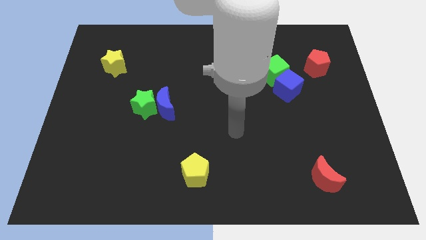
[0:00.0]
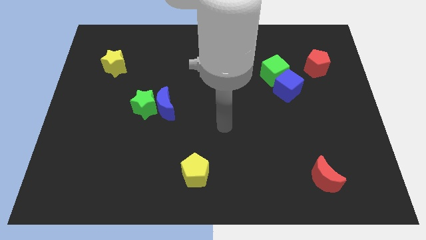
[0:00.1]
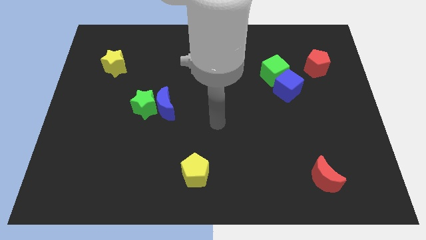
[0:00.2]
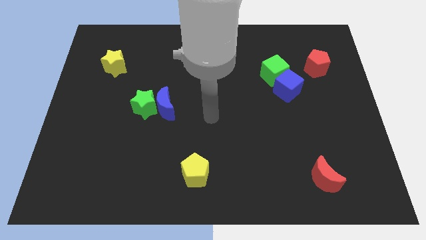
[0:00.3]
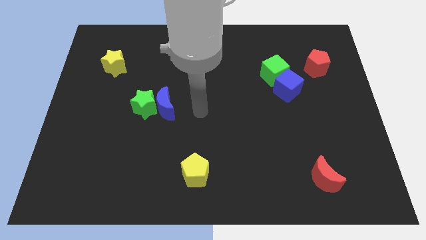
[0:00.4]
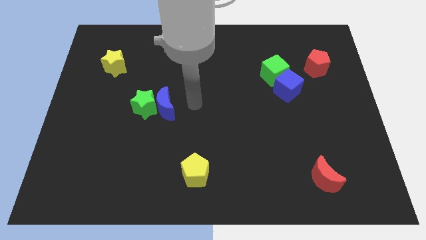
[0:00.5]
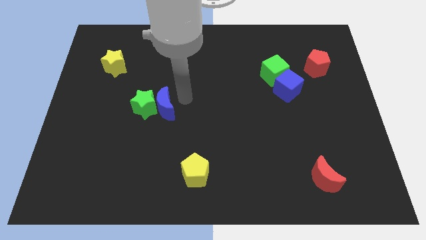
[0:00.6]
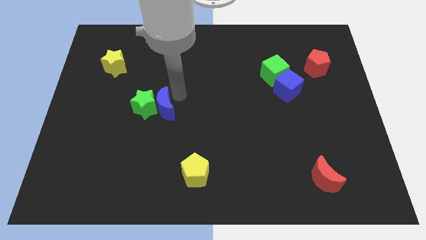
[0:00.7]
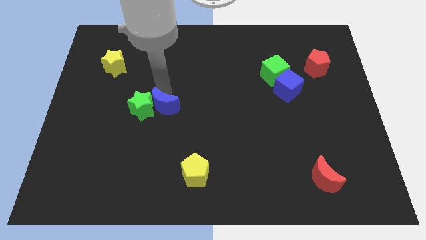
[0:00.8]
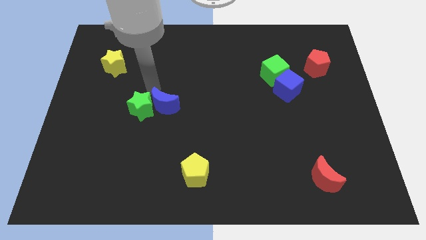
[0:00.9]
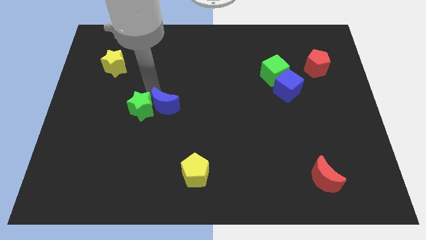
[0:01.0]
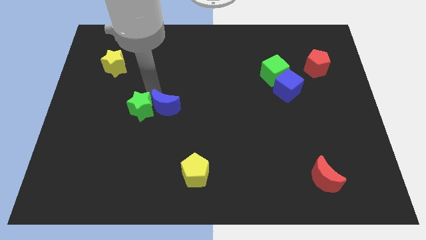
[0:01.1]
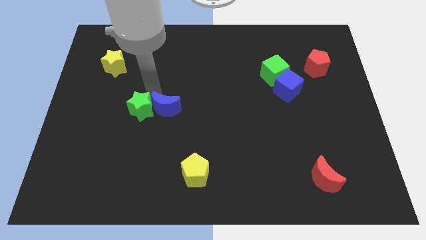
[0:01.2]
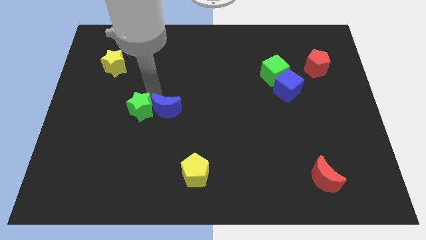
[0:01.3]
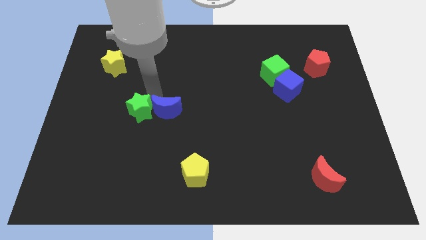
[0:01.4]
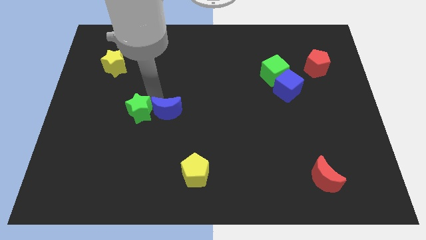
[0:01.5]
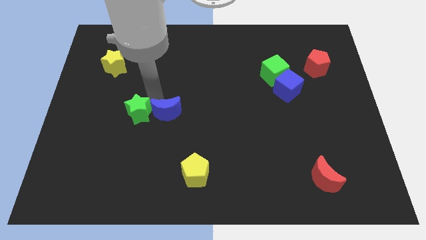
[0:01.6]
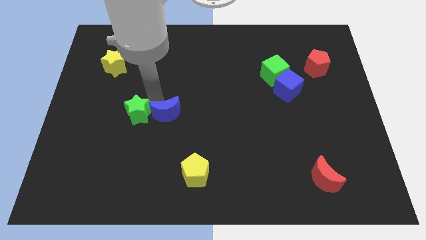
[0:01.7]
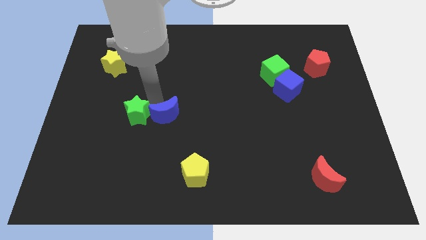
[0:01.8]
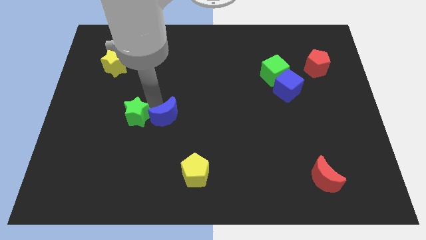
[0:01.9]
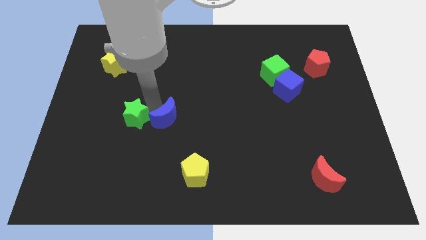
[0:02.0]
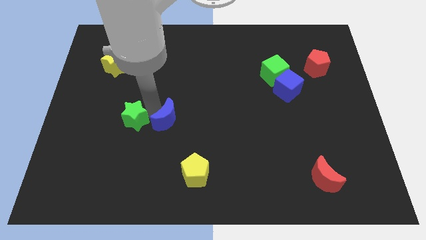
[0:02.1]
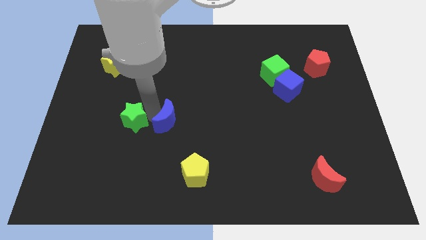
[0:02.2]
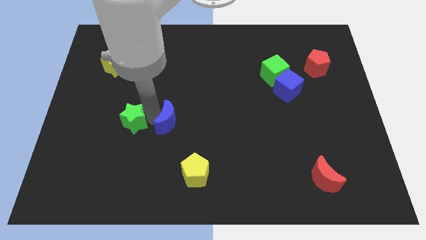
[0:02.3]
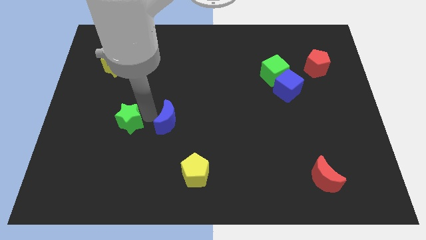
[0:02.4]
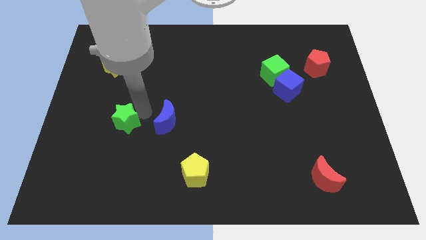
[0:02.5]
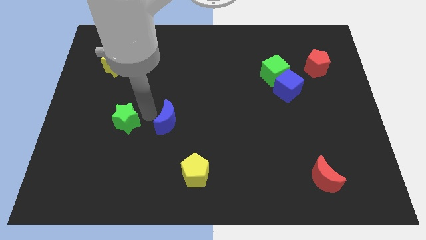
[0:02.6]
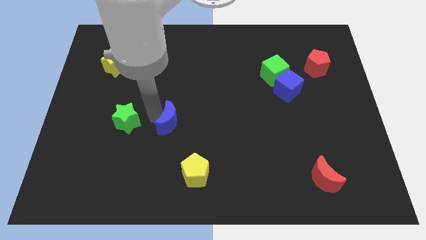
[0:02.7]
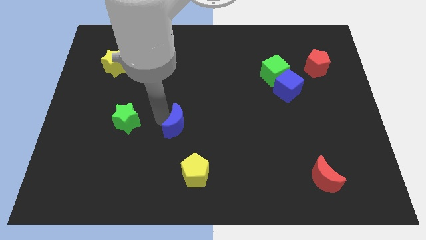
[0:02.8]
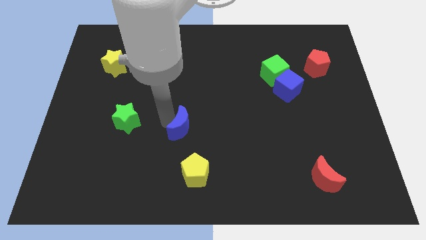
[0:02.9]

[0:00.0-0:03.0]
move the blue moon slightly down and then right

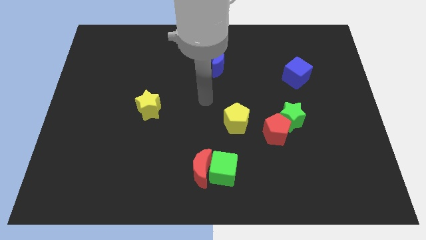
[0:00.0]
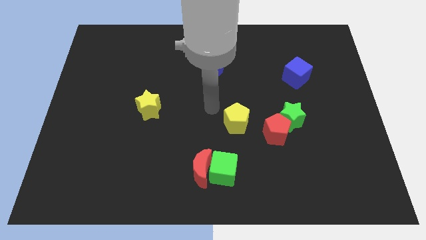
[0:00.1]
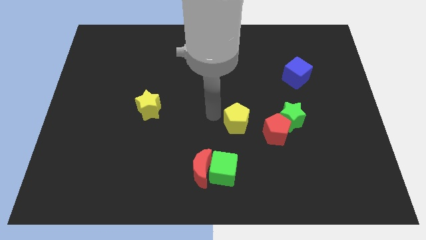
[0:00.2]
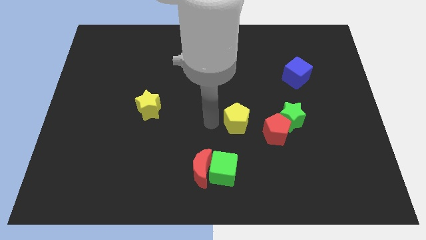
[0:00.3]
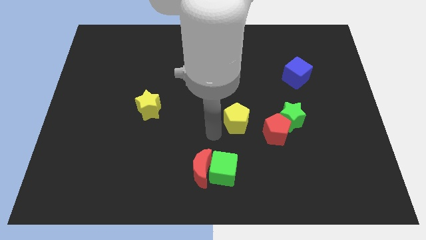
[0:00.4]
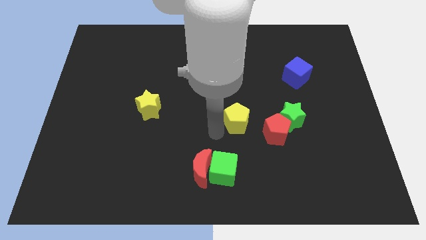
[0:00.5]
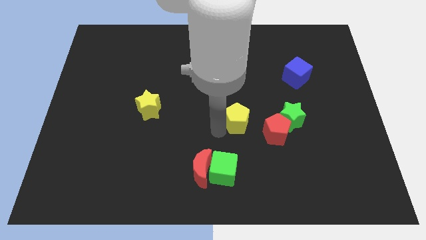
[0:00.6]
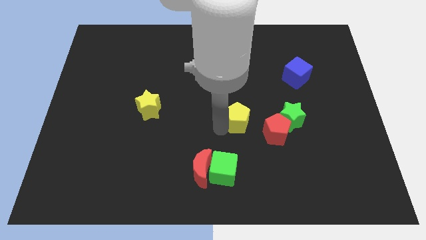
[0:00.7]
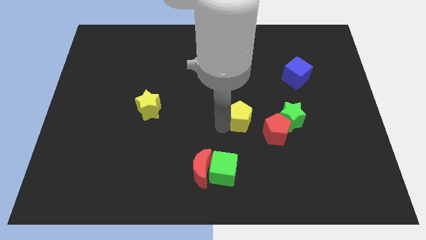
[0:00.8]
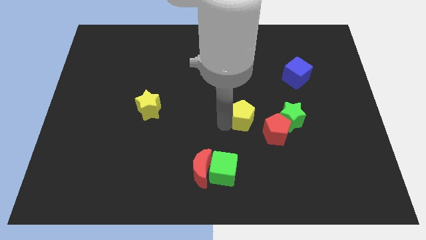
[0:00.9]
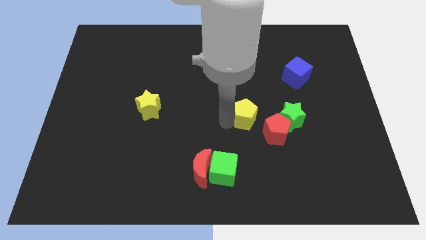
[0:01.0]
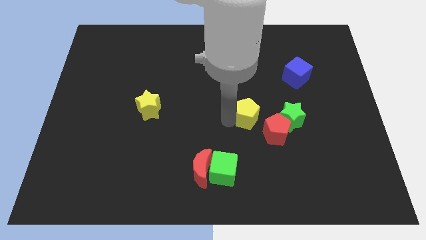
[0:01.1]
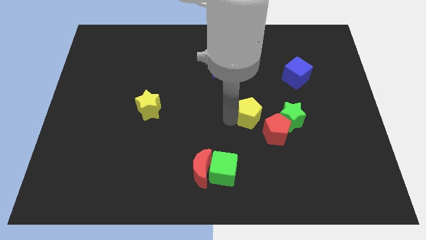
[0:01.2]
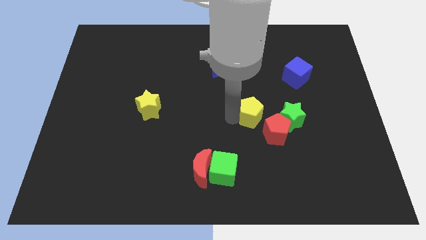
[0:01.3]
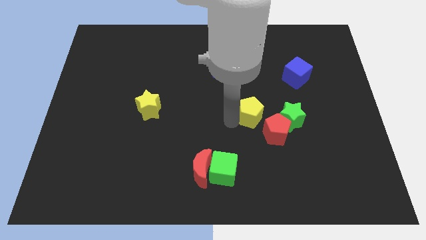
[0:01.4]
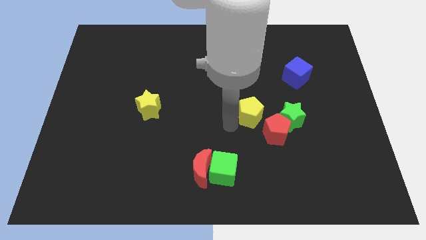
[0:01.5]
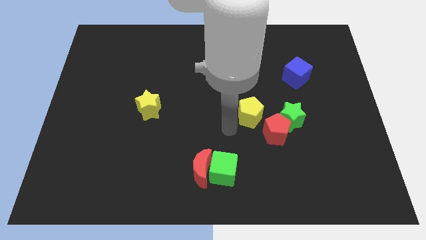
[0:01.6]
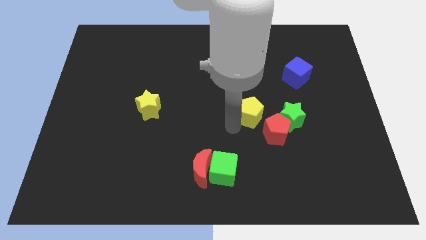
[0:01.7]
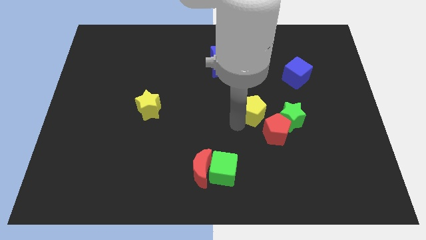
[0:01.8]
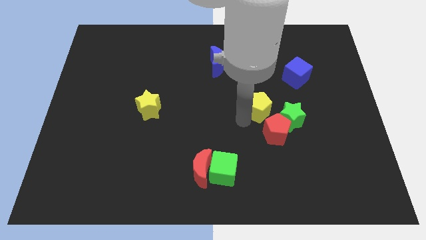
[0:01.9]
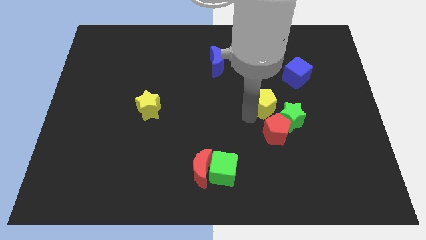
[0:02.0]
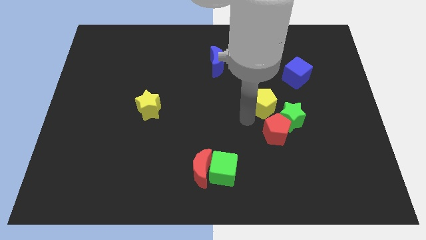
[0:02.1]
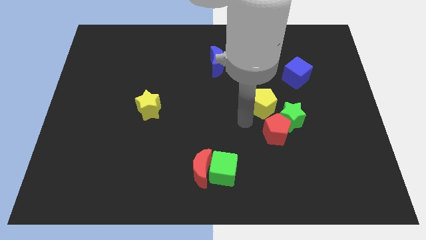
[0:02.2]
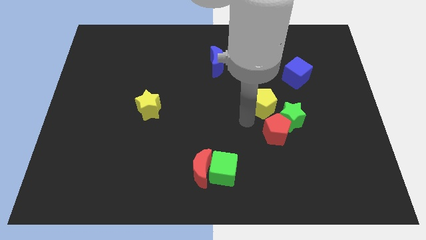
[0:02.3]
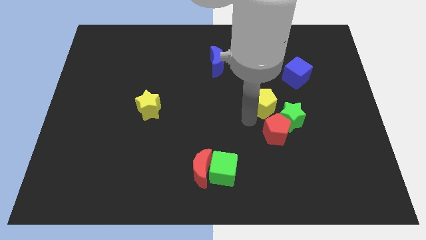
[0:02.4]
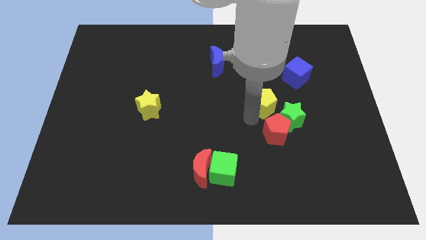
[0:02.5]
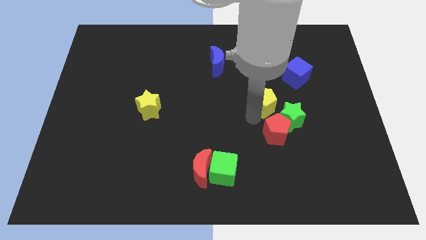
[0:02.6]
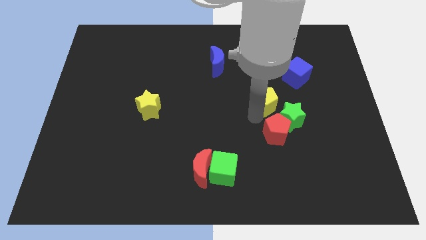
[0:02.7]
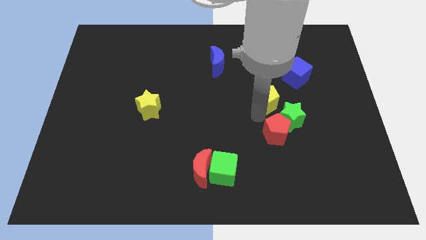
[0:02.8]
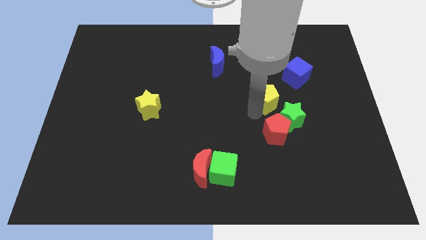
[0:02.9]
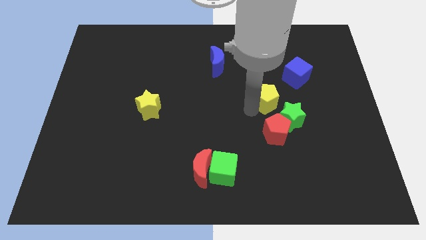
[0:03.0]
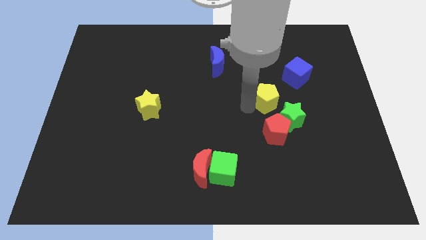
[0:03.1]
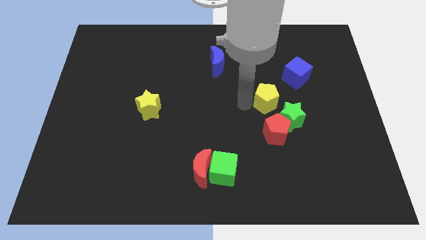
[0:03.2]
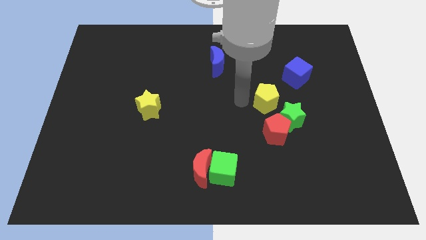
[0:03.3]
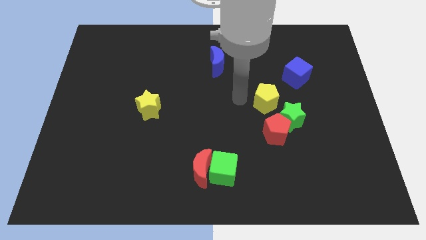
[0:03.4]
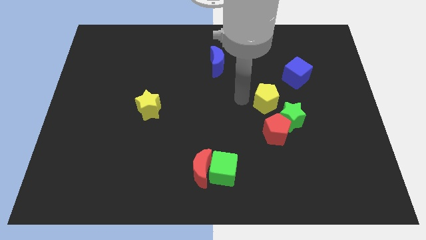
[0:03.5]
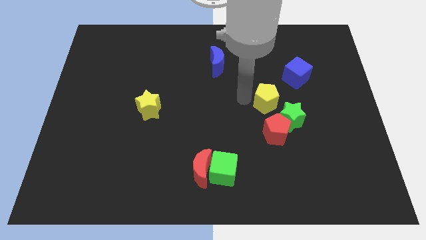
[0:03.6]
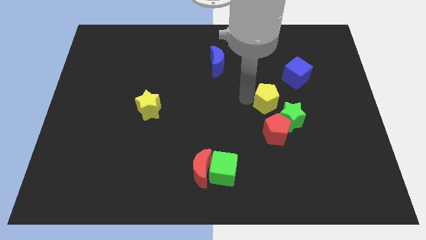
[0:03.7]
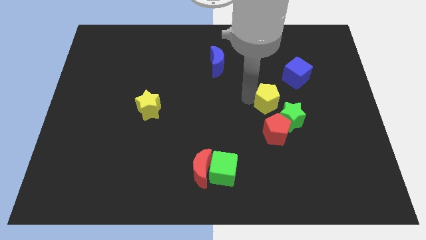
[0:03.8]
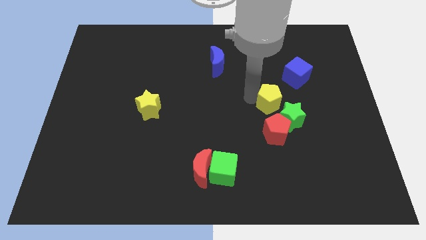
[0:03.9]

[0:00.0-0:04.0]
push the yellow pentagon a little bit to the right

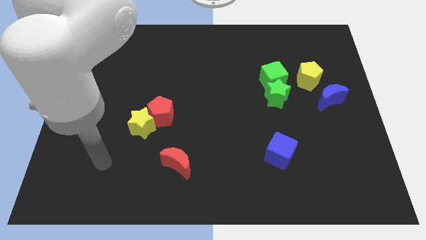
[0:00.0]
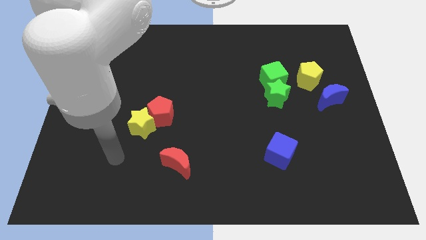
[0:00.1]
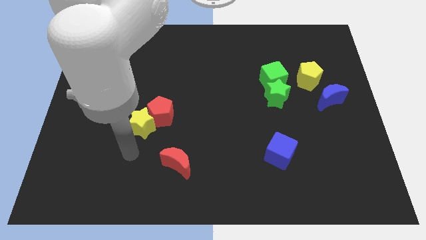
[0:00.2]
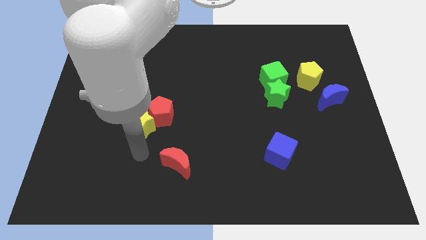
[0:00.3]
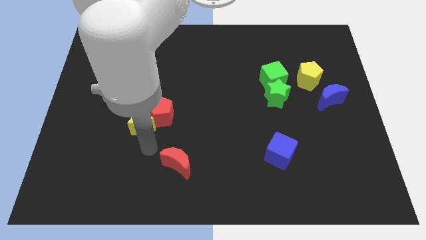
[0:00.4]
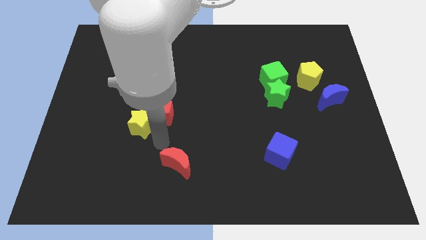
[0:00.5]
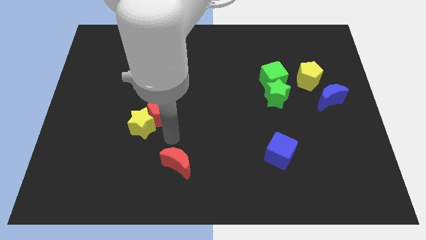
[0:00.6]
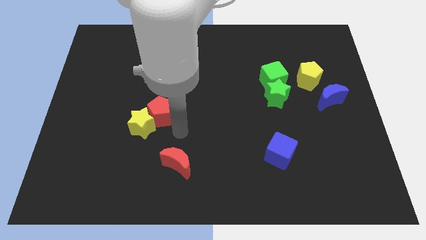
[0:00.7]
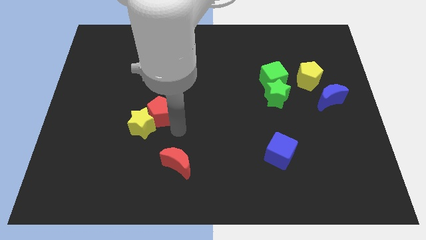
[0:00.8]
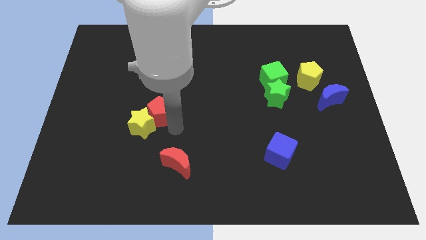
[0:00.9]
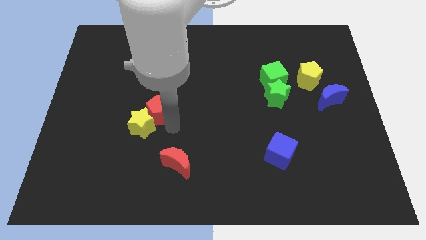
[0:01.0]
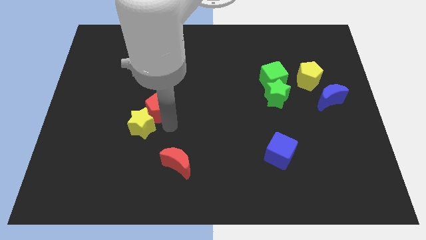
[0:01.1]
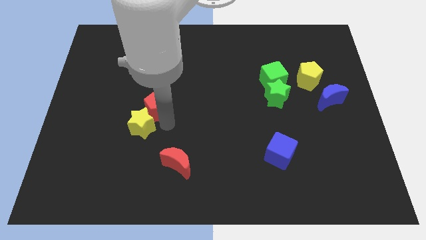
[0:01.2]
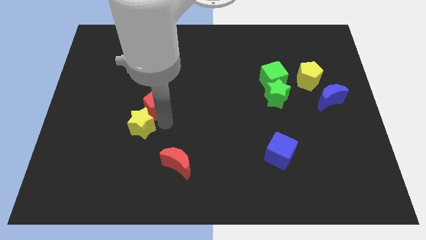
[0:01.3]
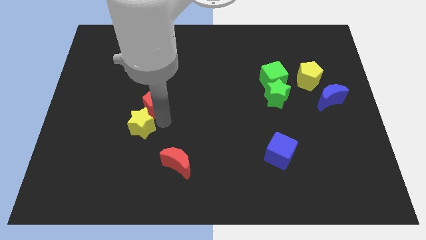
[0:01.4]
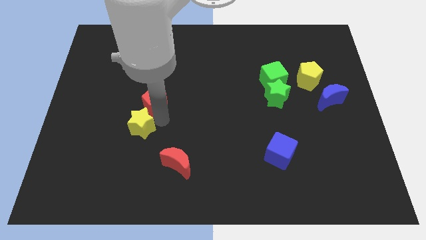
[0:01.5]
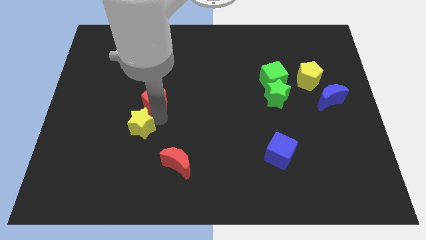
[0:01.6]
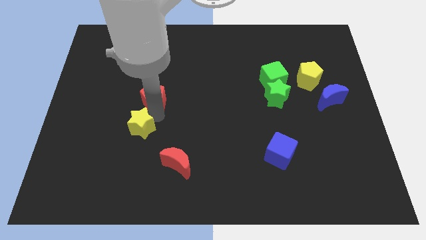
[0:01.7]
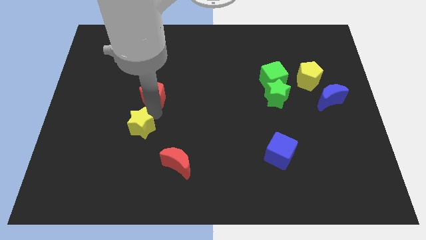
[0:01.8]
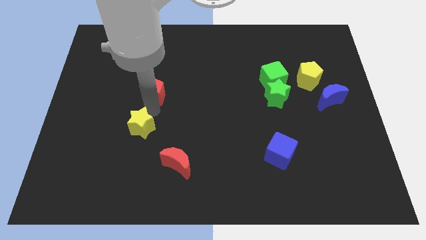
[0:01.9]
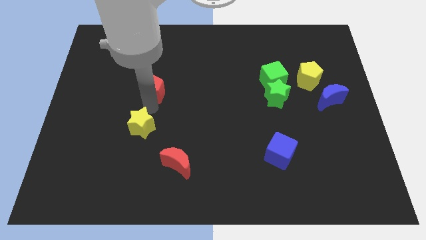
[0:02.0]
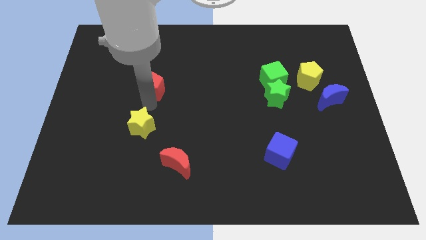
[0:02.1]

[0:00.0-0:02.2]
slide the red pentagon upwards and to the left diagonally a little
